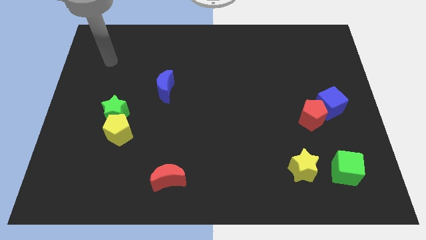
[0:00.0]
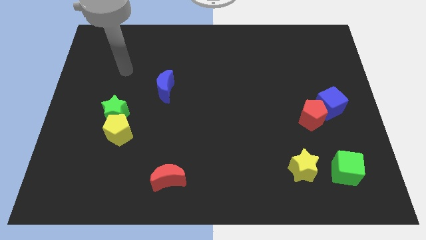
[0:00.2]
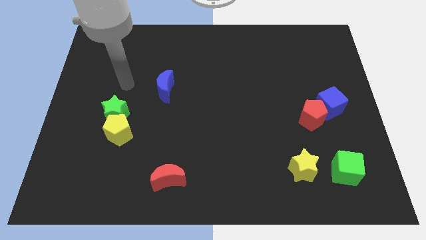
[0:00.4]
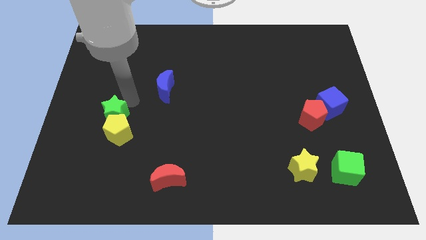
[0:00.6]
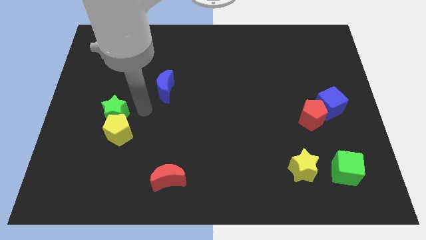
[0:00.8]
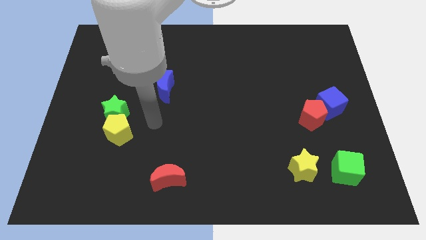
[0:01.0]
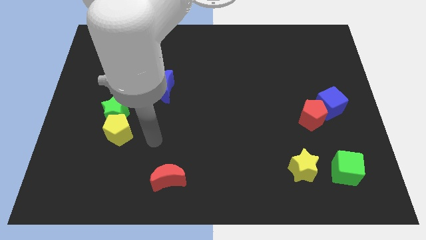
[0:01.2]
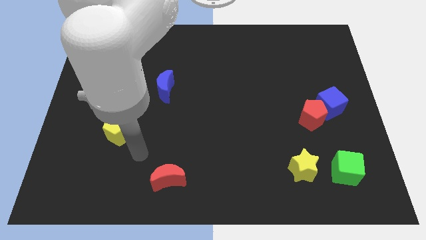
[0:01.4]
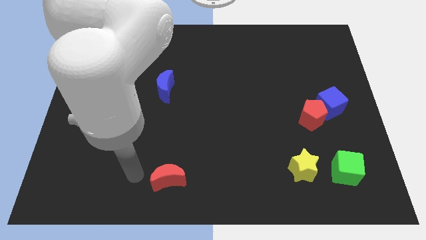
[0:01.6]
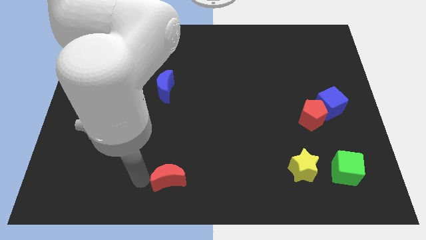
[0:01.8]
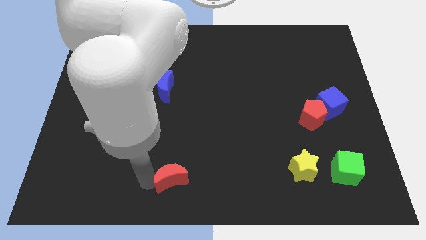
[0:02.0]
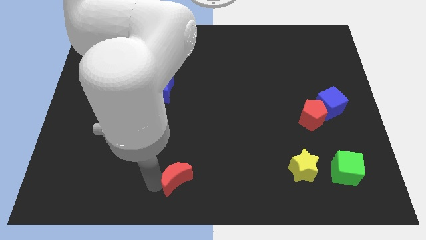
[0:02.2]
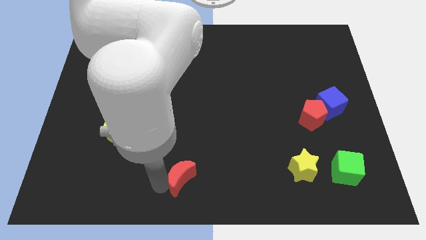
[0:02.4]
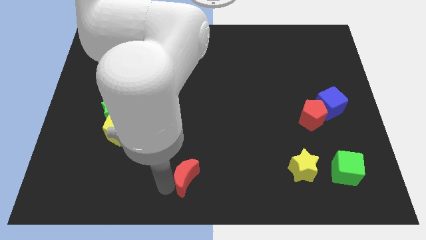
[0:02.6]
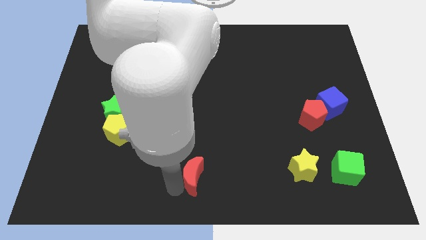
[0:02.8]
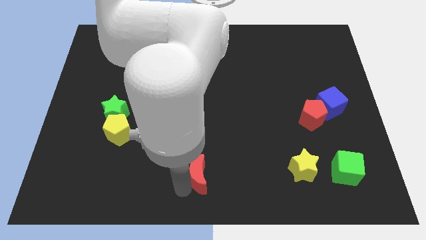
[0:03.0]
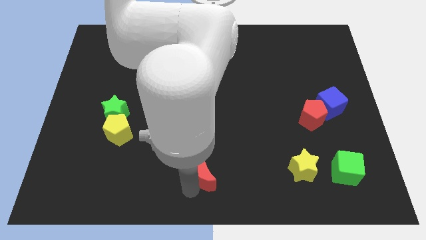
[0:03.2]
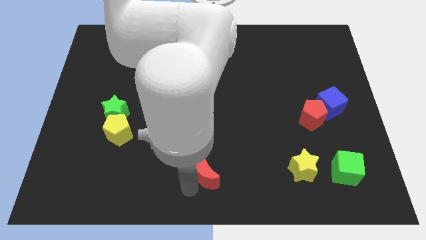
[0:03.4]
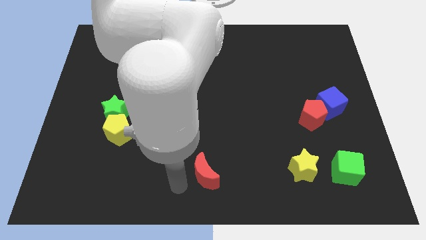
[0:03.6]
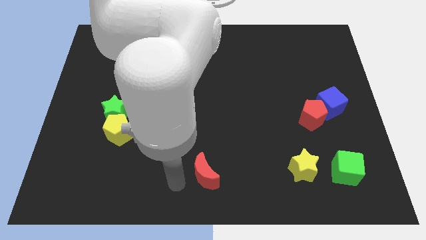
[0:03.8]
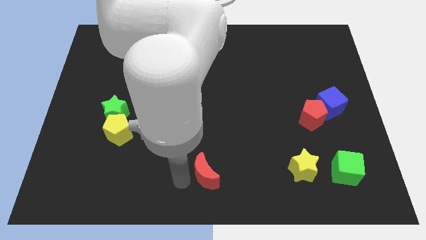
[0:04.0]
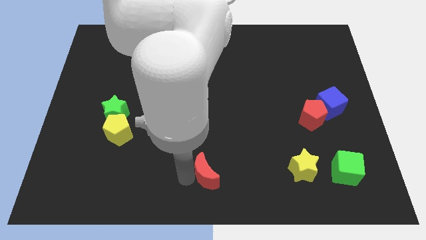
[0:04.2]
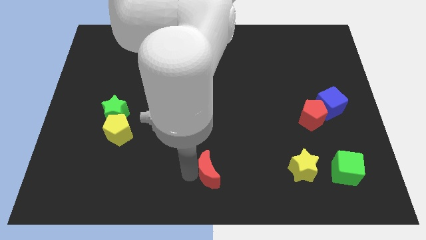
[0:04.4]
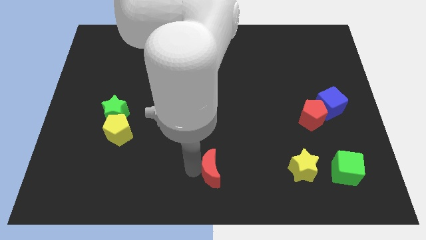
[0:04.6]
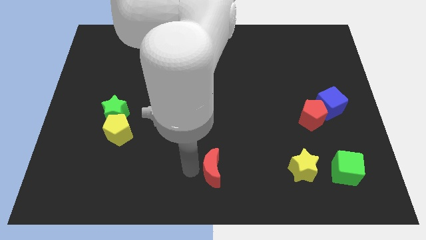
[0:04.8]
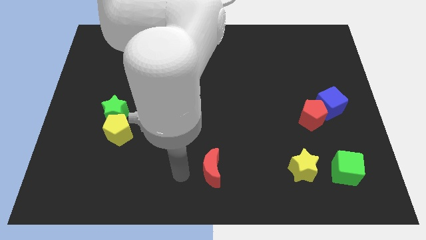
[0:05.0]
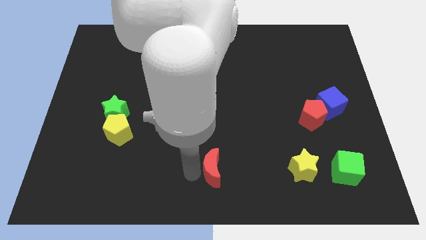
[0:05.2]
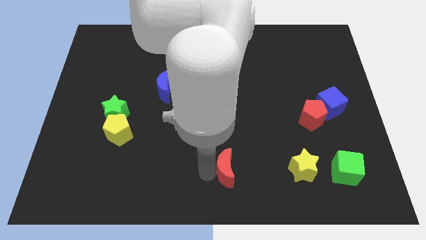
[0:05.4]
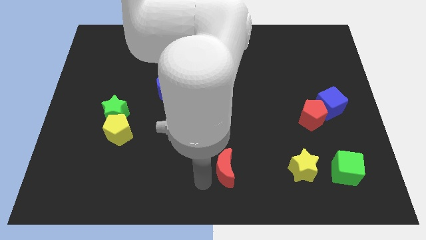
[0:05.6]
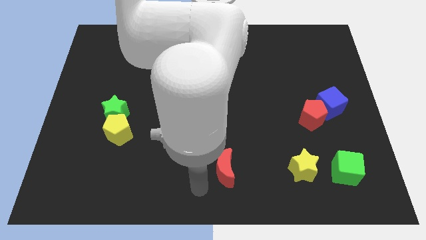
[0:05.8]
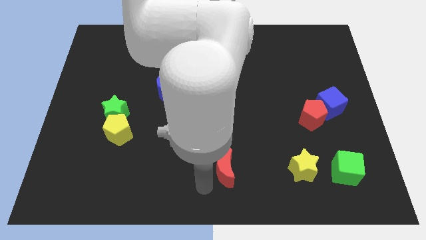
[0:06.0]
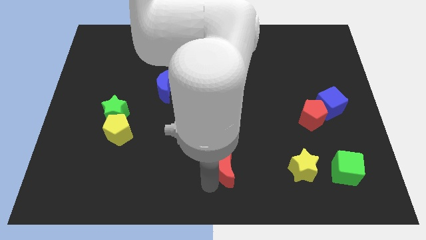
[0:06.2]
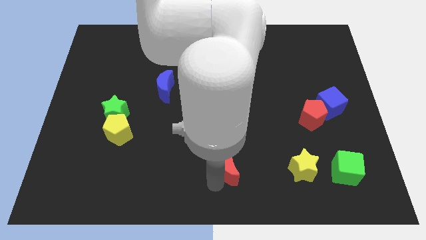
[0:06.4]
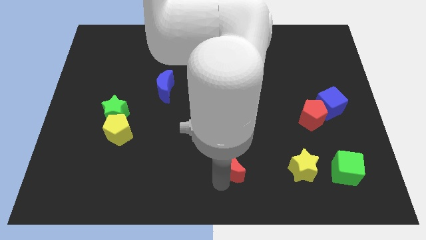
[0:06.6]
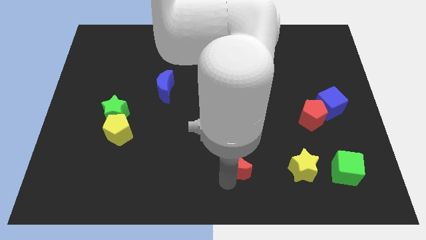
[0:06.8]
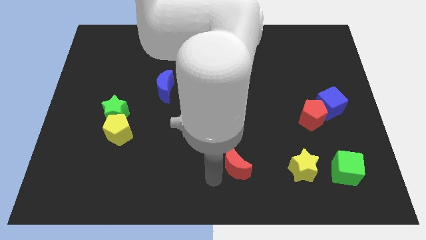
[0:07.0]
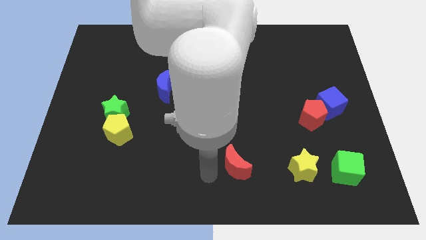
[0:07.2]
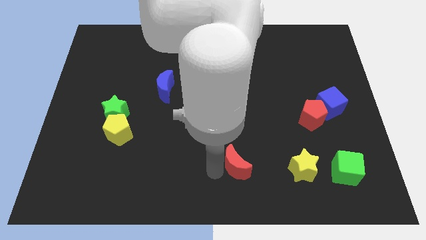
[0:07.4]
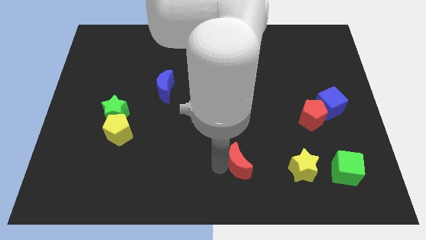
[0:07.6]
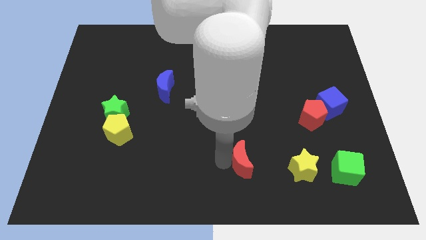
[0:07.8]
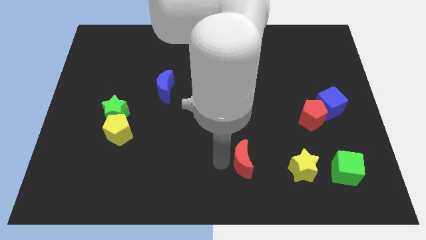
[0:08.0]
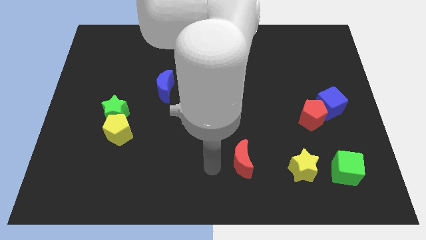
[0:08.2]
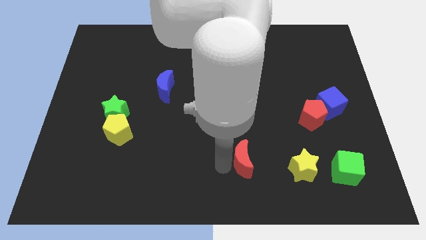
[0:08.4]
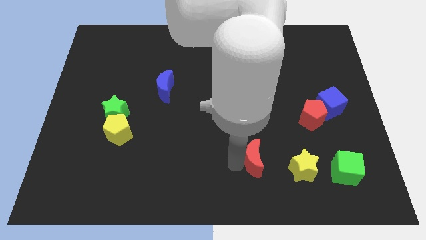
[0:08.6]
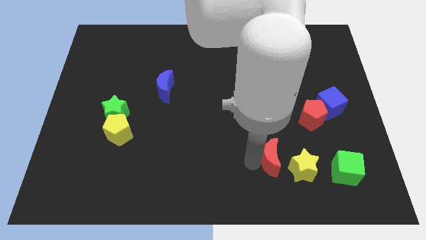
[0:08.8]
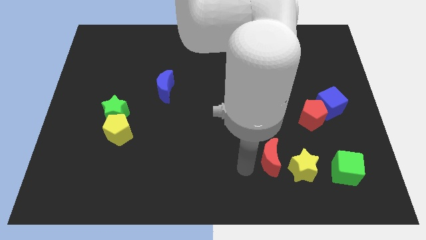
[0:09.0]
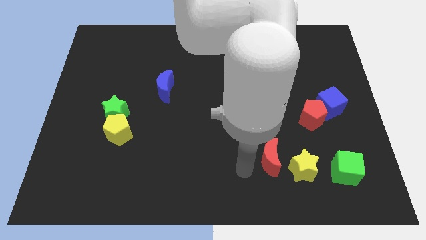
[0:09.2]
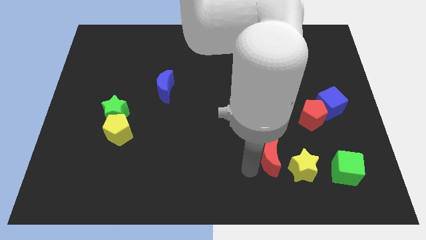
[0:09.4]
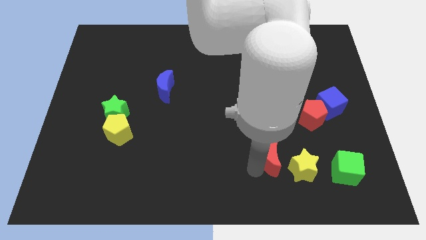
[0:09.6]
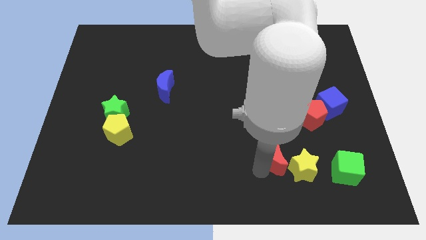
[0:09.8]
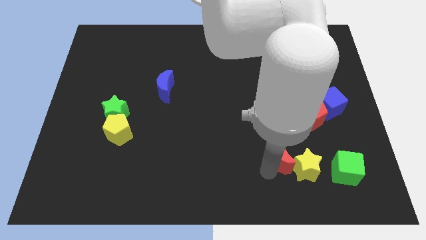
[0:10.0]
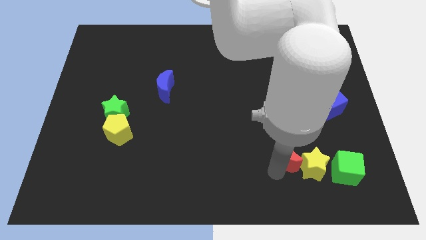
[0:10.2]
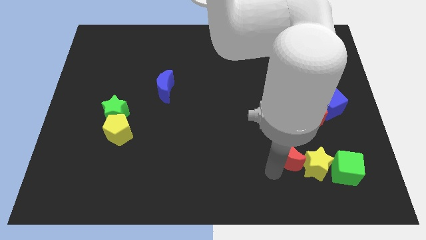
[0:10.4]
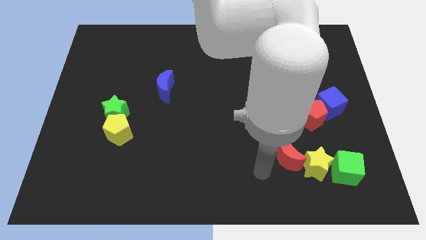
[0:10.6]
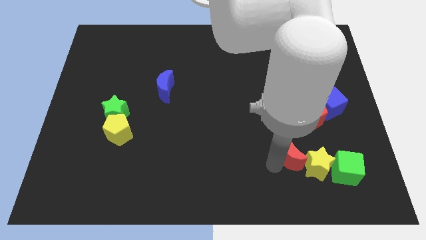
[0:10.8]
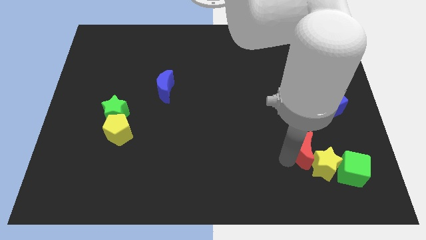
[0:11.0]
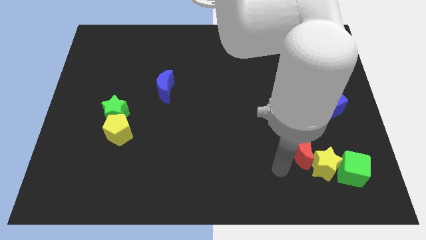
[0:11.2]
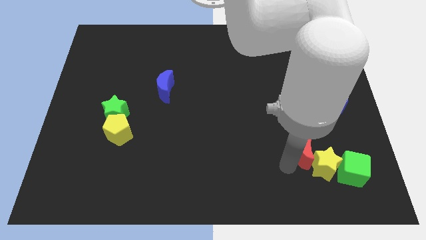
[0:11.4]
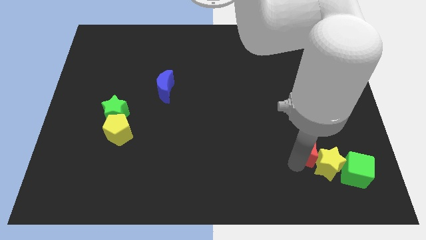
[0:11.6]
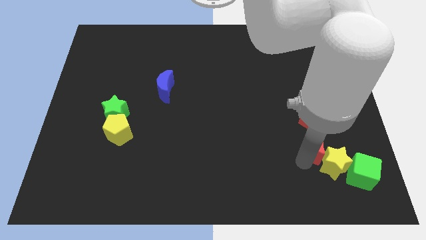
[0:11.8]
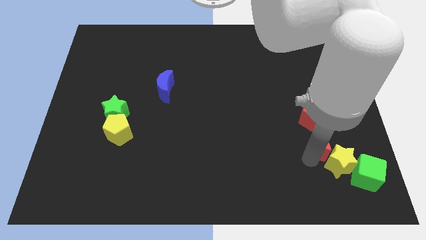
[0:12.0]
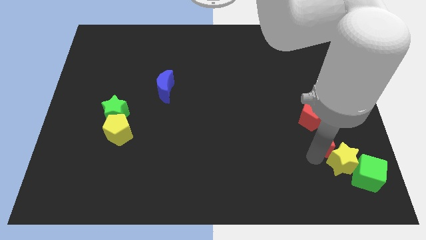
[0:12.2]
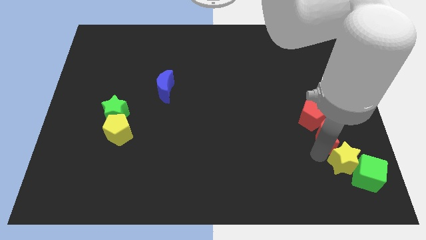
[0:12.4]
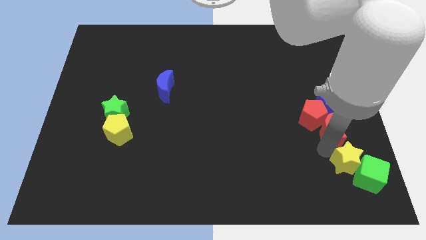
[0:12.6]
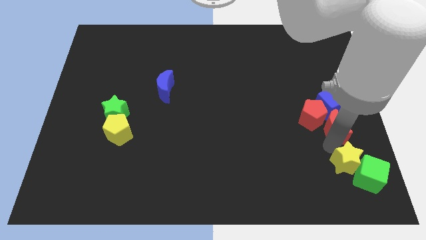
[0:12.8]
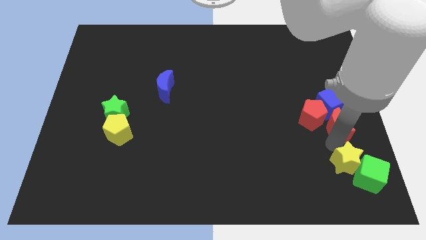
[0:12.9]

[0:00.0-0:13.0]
put the red moon to the right side of the board

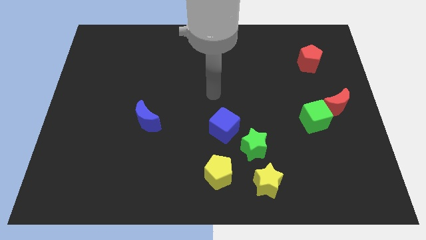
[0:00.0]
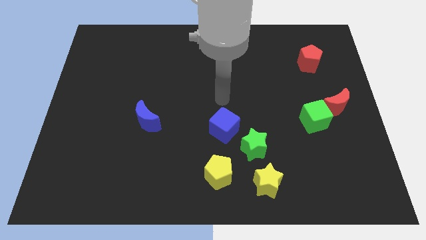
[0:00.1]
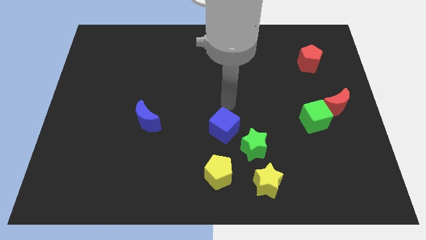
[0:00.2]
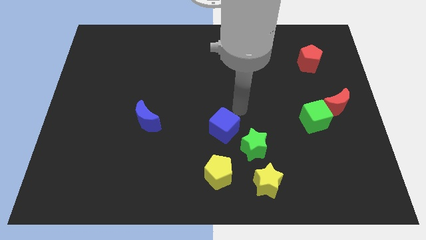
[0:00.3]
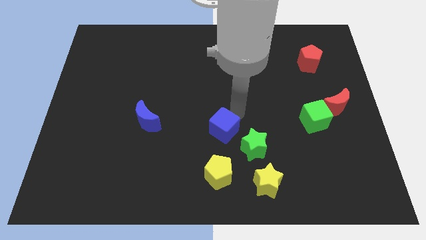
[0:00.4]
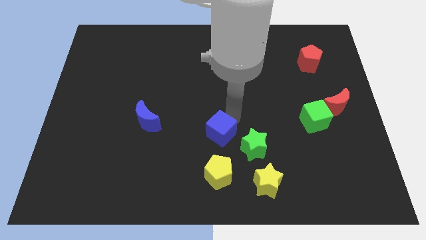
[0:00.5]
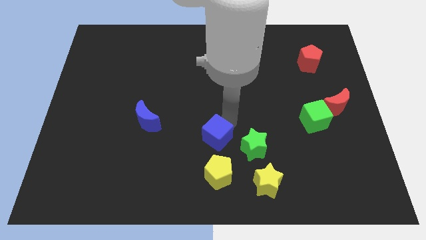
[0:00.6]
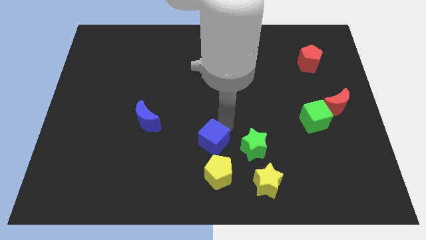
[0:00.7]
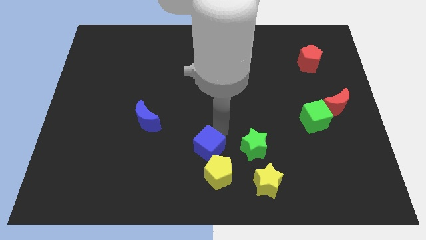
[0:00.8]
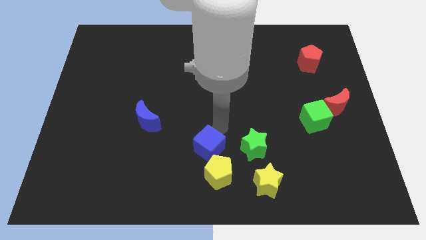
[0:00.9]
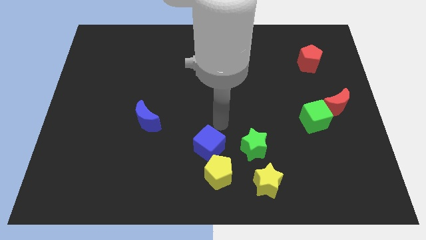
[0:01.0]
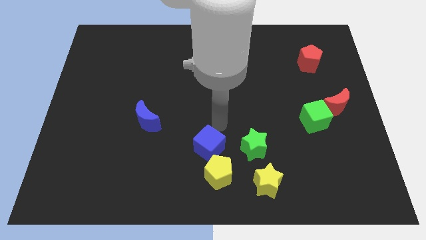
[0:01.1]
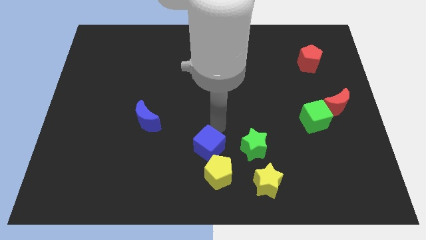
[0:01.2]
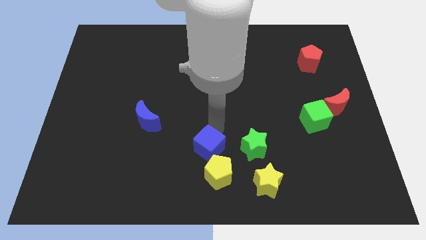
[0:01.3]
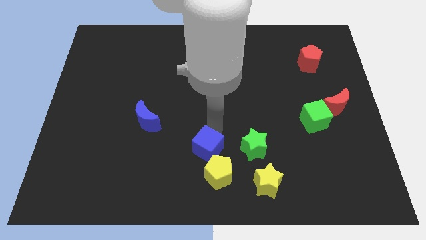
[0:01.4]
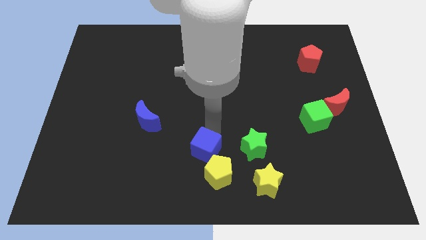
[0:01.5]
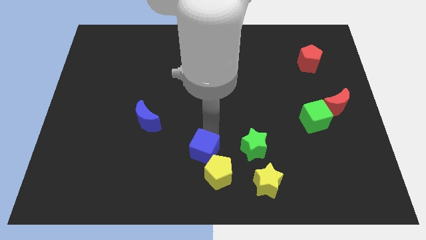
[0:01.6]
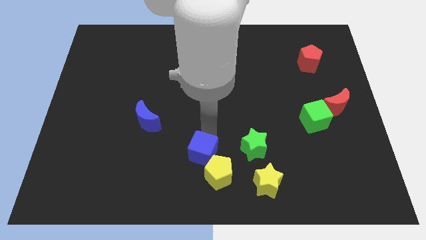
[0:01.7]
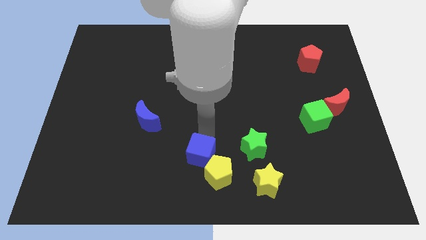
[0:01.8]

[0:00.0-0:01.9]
move the blue cube to the bottom side
